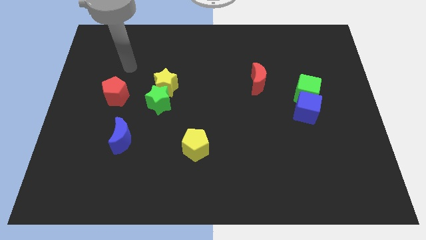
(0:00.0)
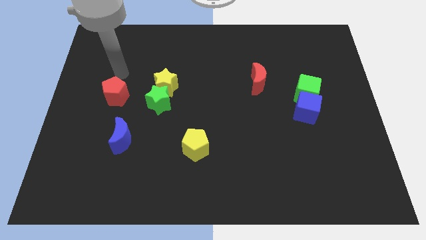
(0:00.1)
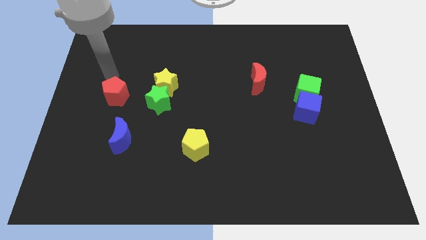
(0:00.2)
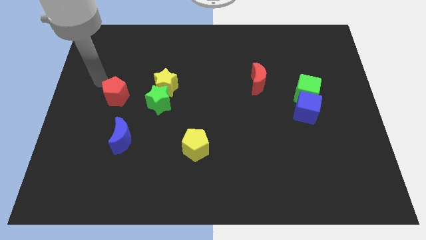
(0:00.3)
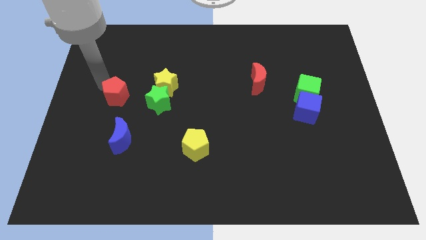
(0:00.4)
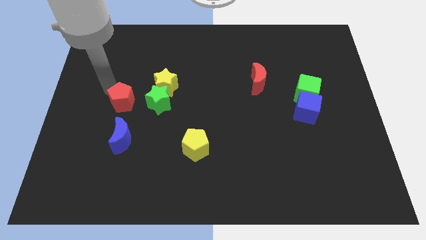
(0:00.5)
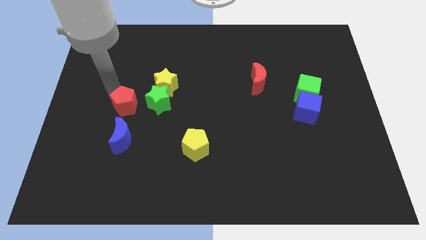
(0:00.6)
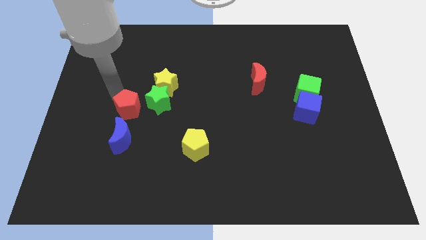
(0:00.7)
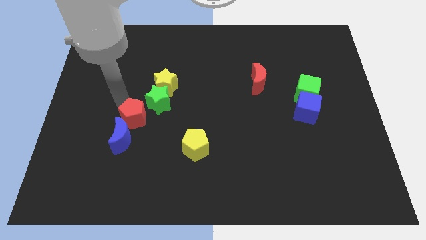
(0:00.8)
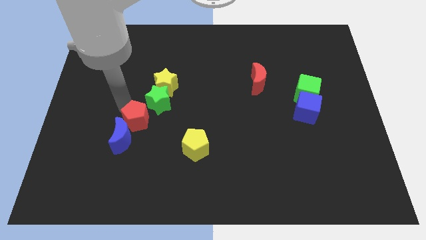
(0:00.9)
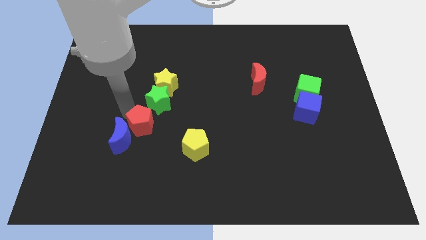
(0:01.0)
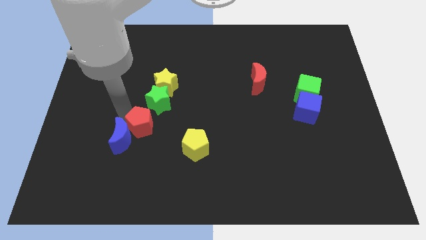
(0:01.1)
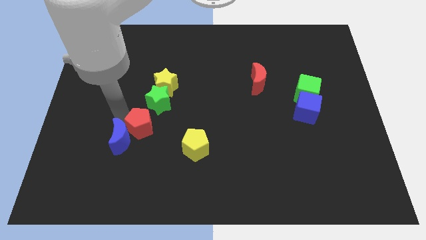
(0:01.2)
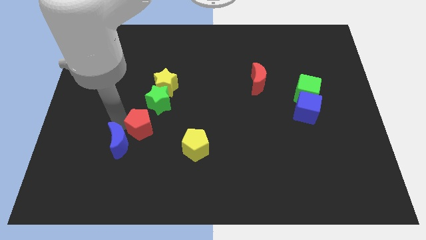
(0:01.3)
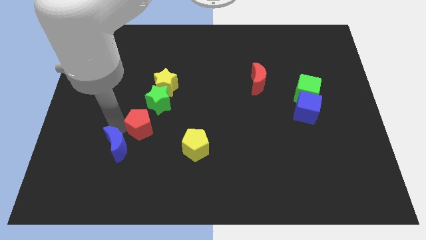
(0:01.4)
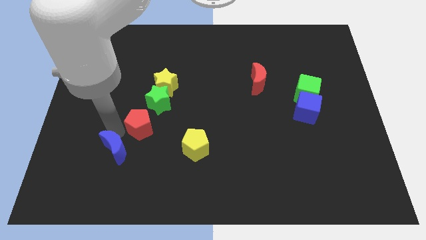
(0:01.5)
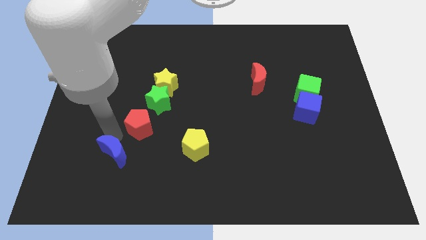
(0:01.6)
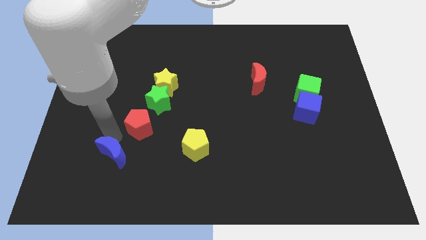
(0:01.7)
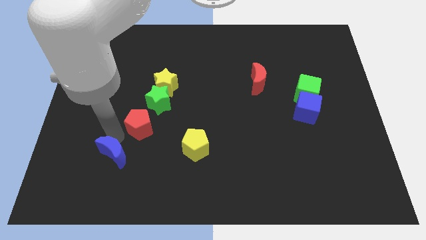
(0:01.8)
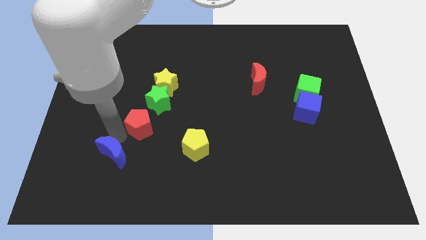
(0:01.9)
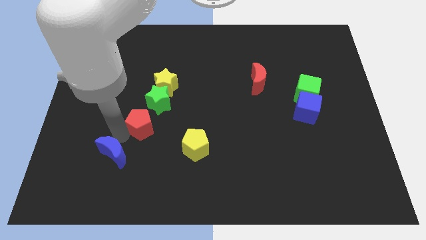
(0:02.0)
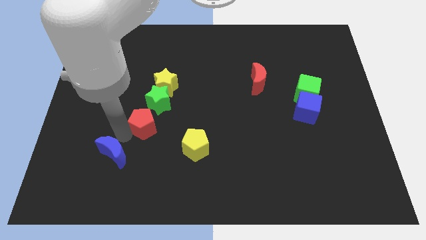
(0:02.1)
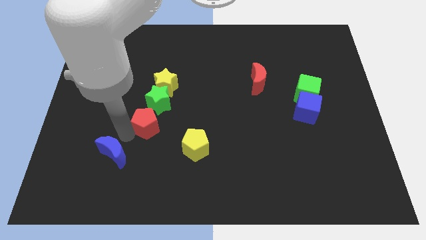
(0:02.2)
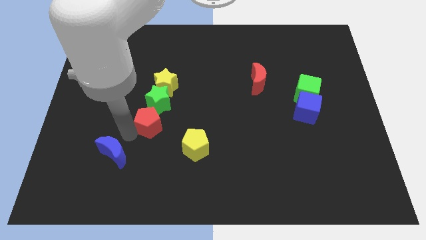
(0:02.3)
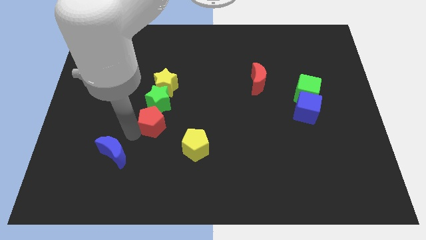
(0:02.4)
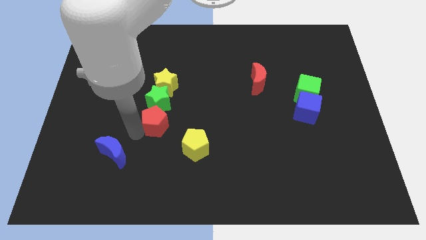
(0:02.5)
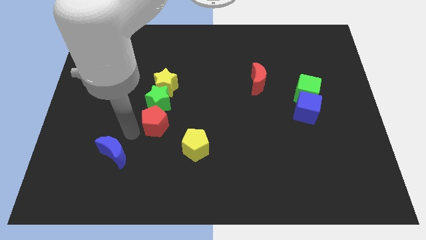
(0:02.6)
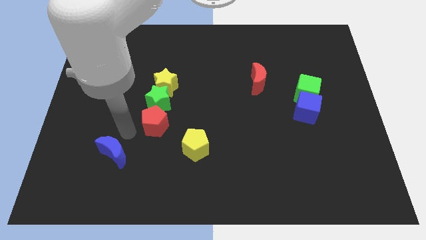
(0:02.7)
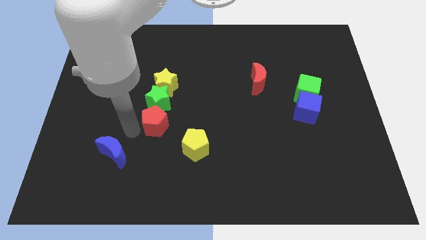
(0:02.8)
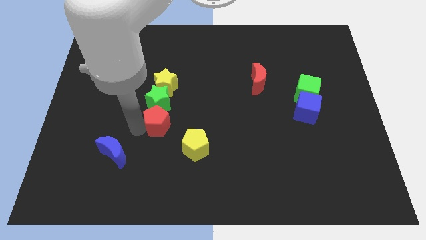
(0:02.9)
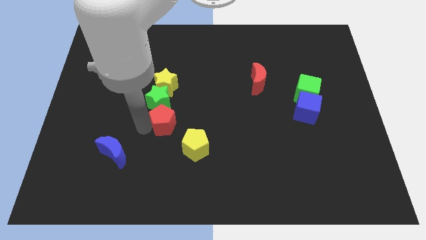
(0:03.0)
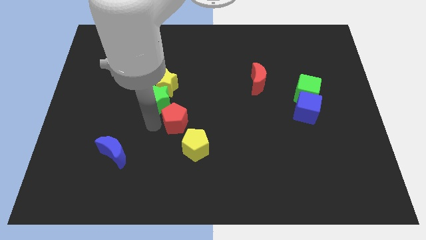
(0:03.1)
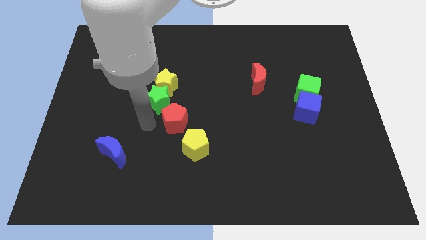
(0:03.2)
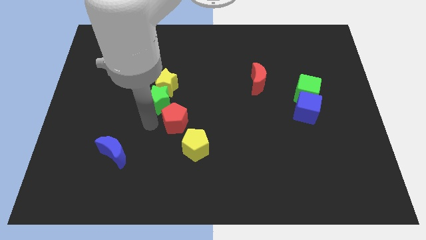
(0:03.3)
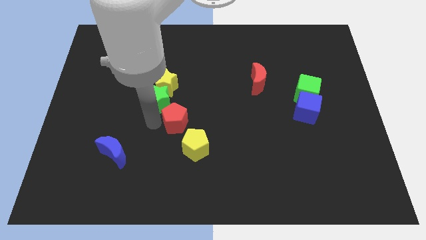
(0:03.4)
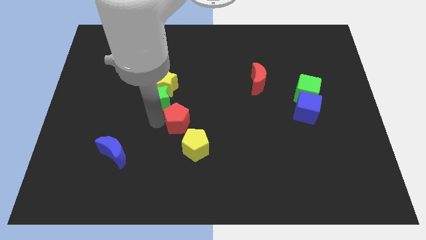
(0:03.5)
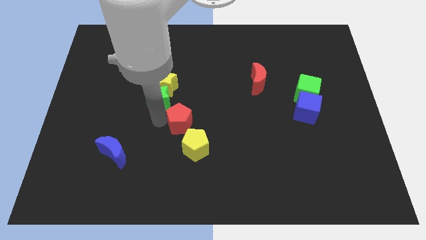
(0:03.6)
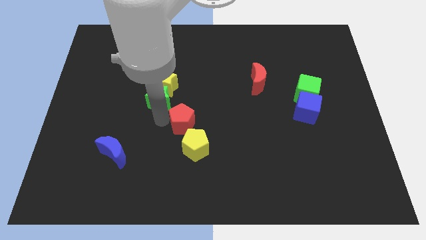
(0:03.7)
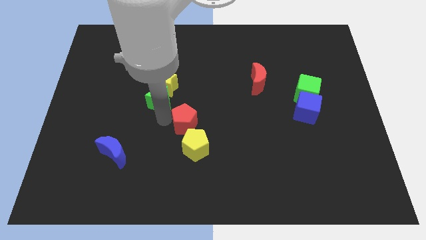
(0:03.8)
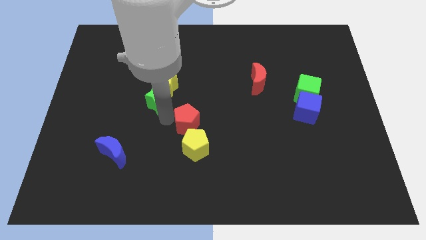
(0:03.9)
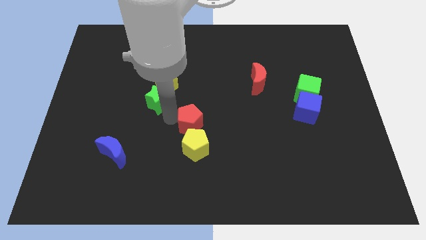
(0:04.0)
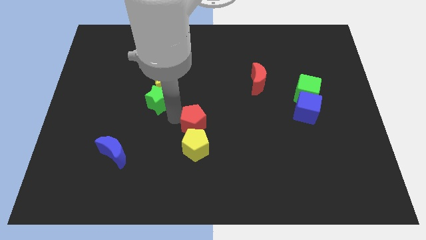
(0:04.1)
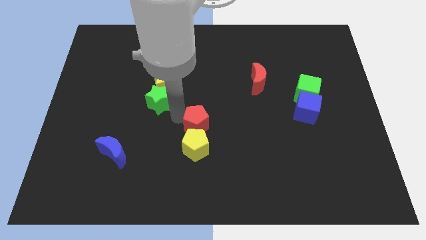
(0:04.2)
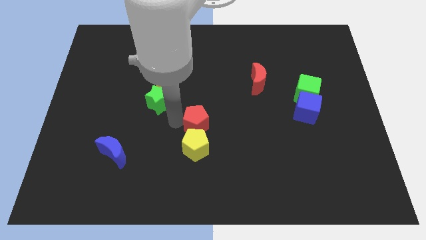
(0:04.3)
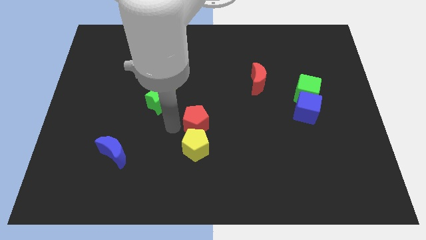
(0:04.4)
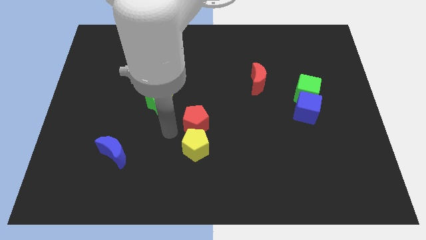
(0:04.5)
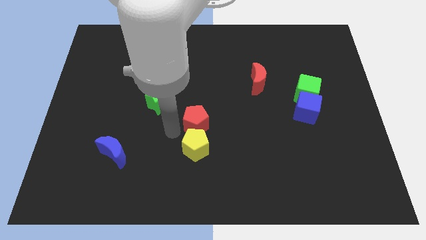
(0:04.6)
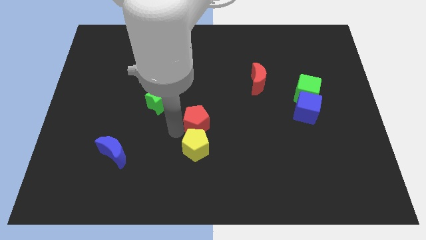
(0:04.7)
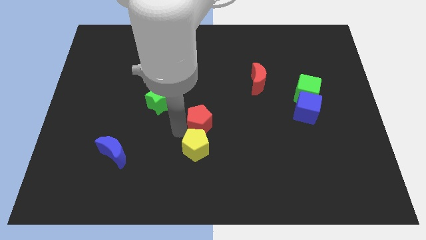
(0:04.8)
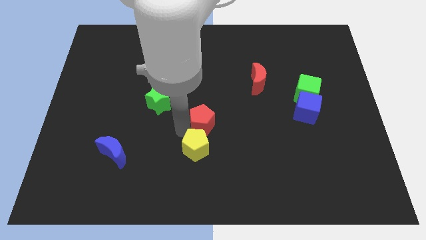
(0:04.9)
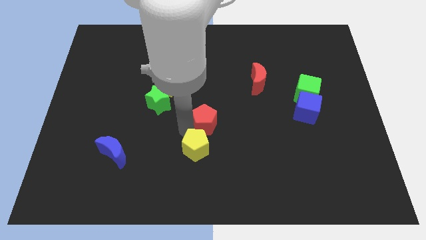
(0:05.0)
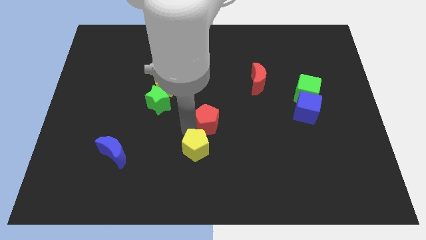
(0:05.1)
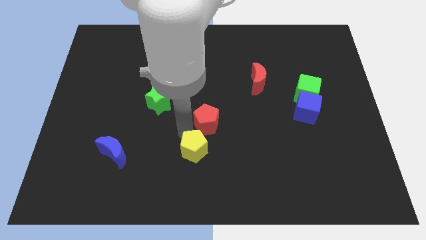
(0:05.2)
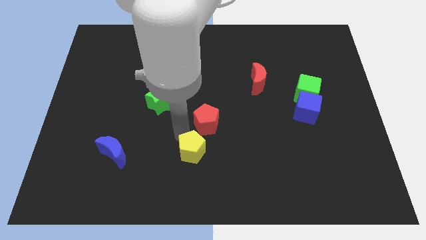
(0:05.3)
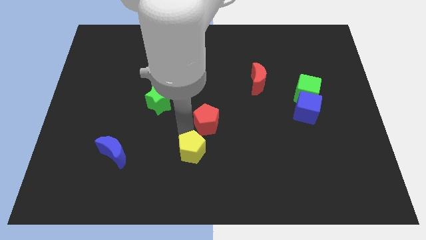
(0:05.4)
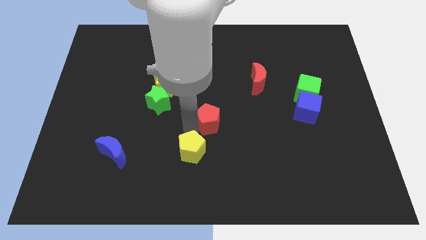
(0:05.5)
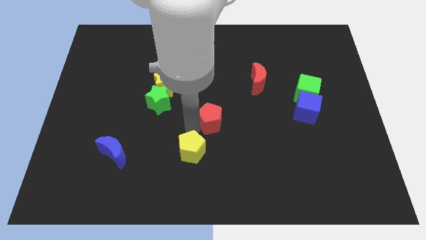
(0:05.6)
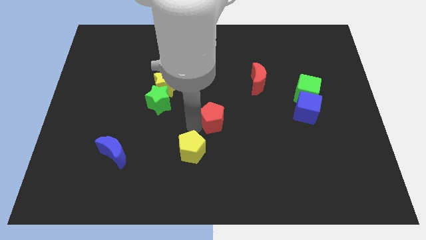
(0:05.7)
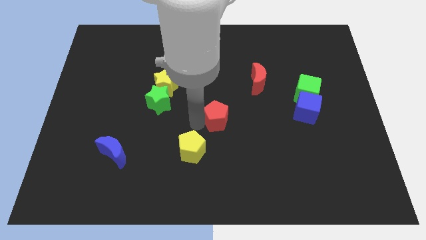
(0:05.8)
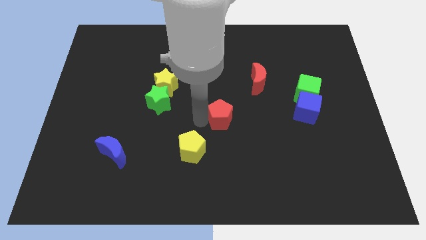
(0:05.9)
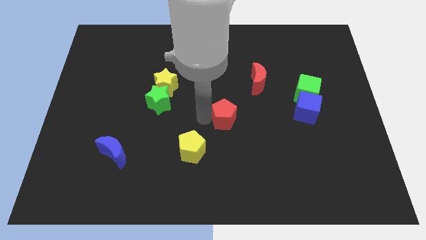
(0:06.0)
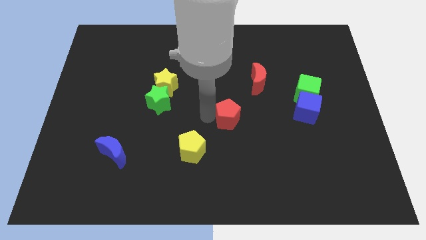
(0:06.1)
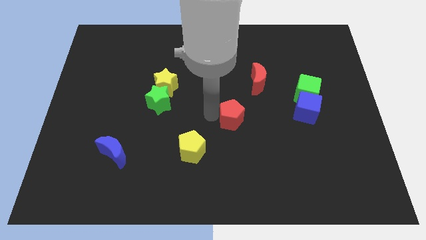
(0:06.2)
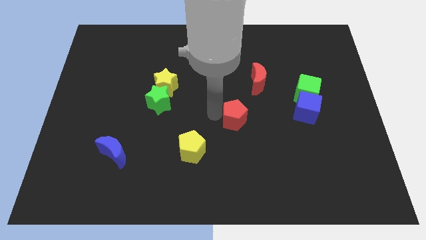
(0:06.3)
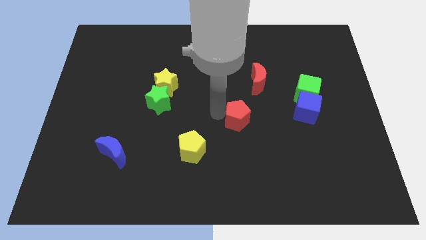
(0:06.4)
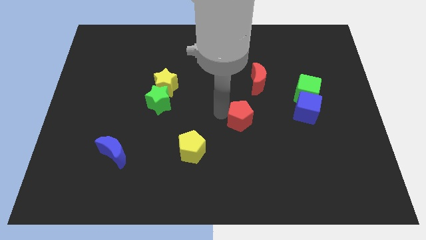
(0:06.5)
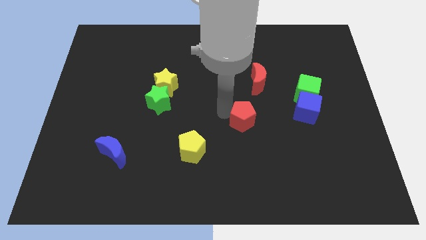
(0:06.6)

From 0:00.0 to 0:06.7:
move the red pentagon to the bottom of the red moon
